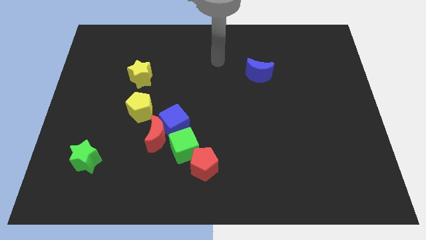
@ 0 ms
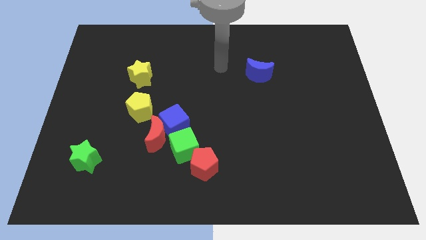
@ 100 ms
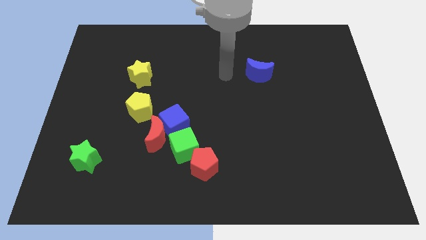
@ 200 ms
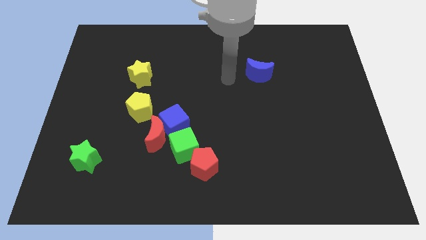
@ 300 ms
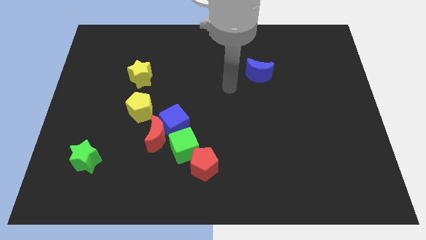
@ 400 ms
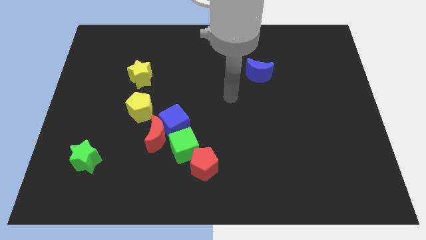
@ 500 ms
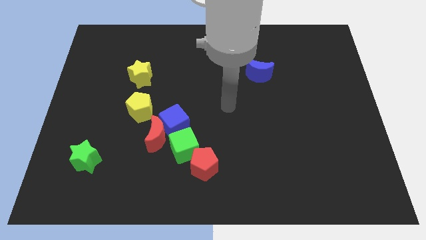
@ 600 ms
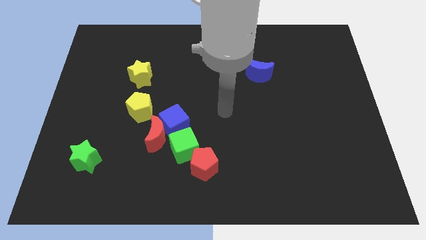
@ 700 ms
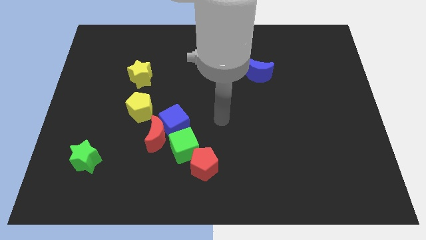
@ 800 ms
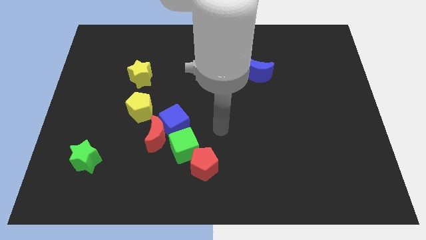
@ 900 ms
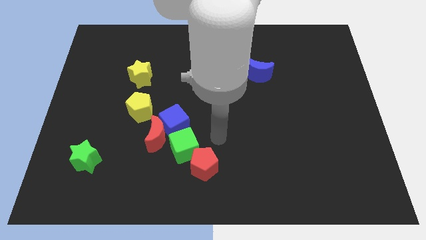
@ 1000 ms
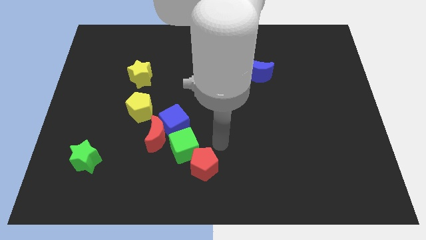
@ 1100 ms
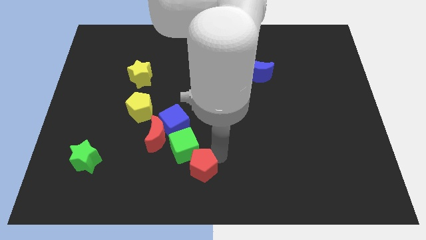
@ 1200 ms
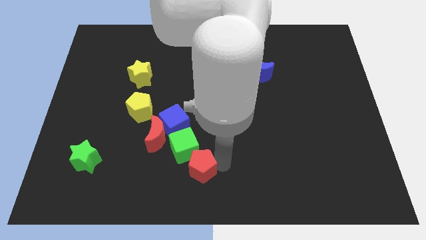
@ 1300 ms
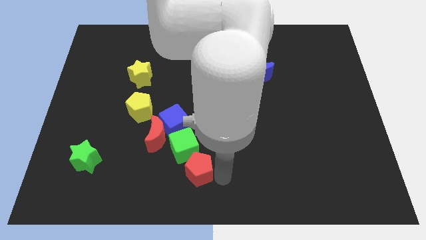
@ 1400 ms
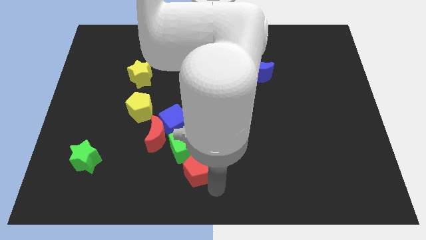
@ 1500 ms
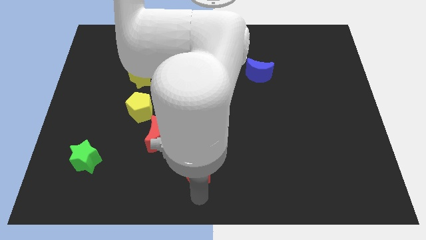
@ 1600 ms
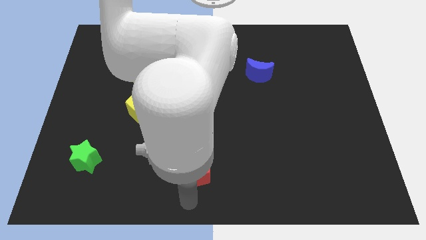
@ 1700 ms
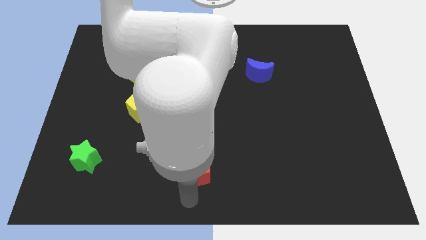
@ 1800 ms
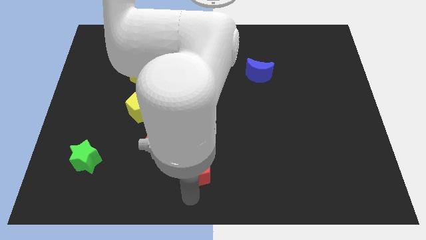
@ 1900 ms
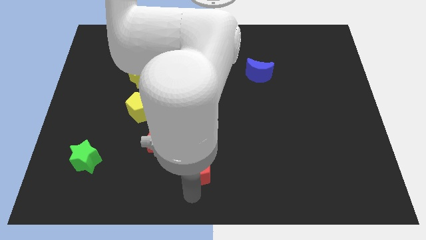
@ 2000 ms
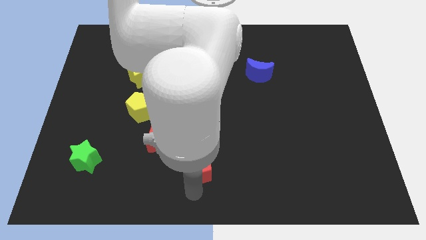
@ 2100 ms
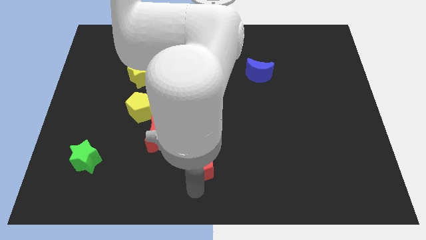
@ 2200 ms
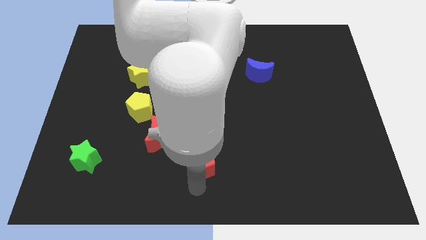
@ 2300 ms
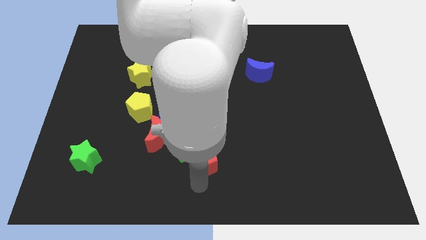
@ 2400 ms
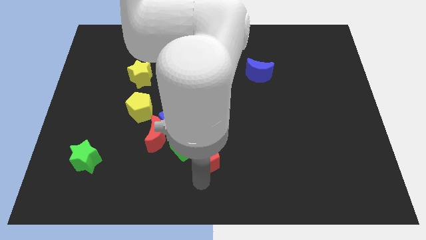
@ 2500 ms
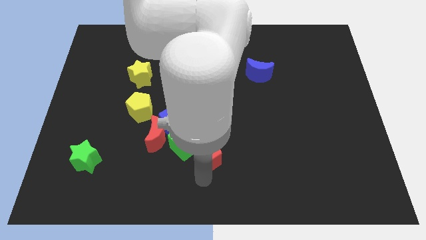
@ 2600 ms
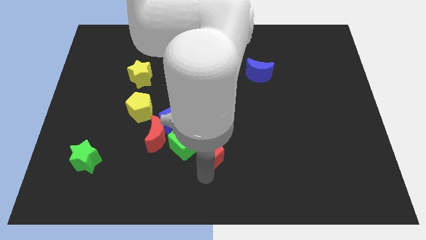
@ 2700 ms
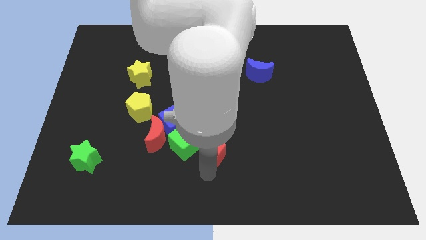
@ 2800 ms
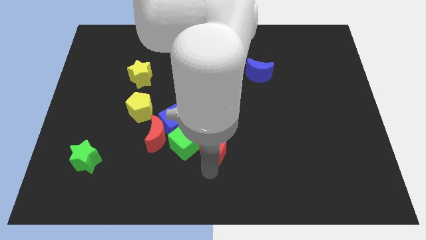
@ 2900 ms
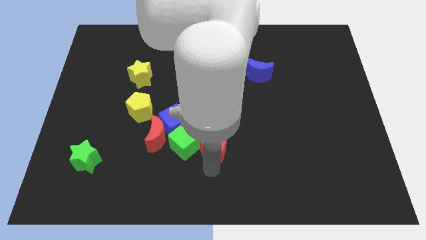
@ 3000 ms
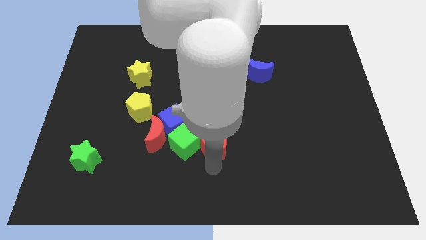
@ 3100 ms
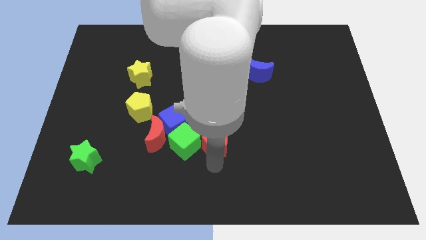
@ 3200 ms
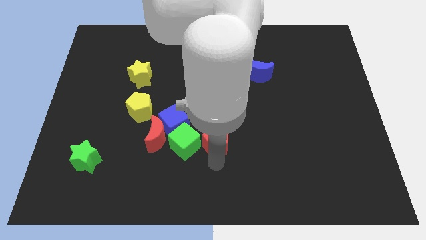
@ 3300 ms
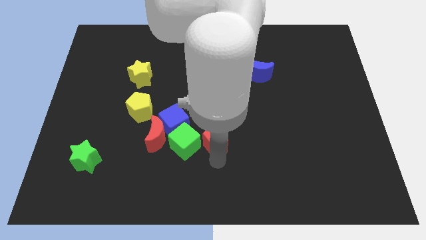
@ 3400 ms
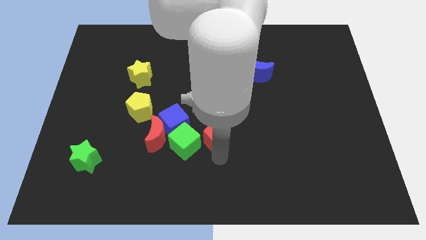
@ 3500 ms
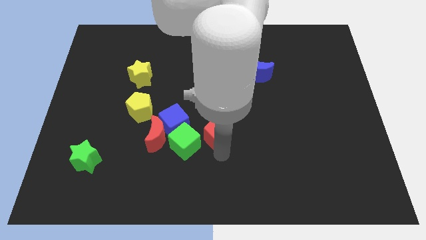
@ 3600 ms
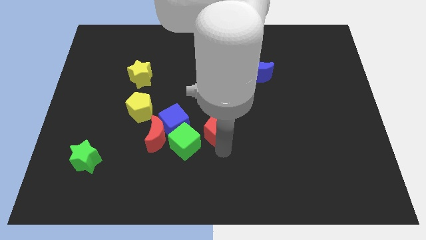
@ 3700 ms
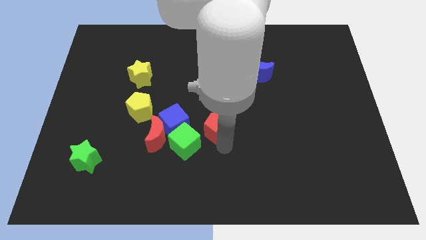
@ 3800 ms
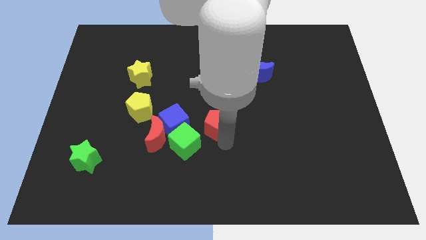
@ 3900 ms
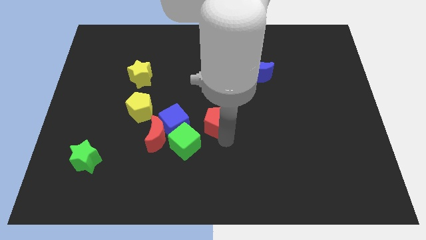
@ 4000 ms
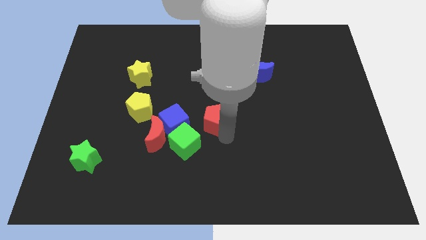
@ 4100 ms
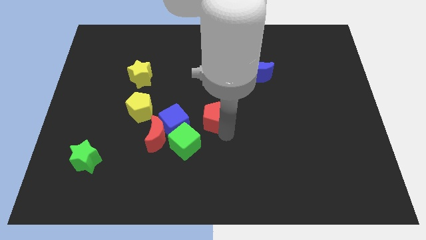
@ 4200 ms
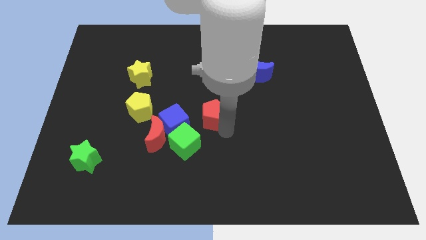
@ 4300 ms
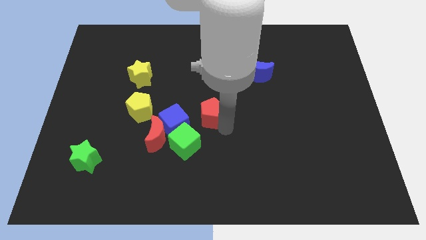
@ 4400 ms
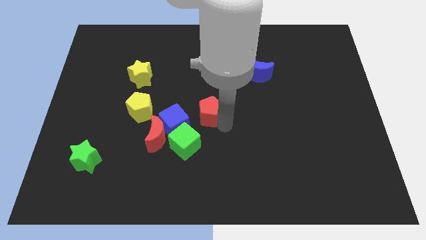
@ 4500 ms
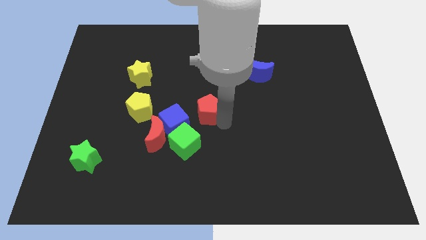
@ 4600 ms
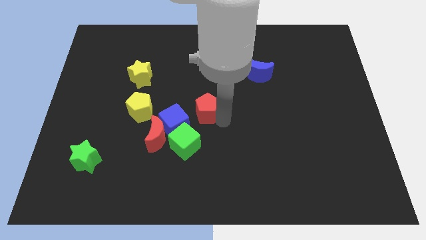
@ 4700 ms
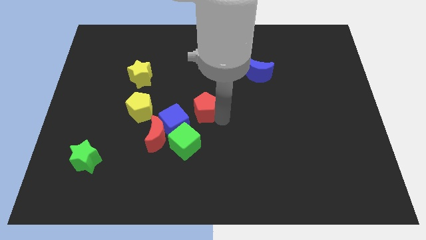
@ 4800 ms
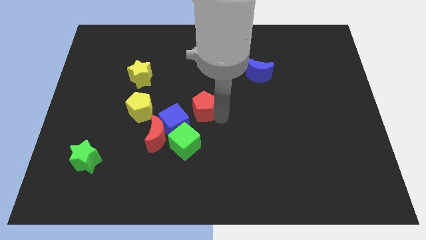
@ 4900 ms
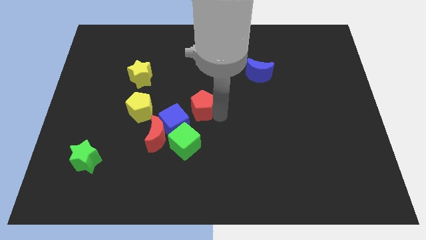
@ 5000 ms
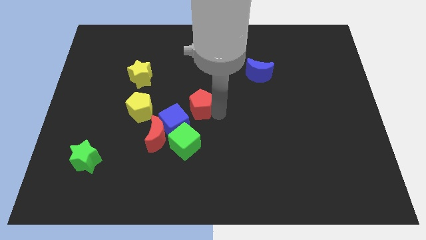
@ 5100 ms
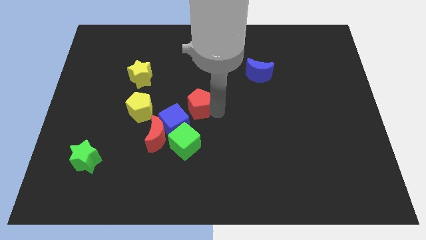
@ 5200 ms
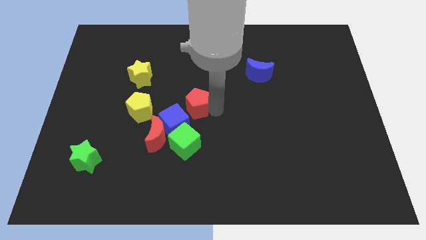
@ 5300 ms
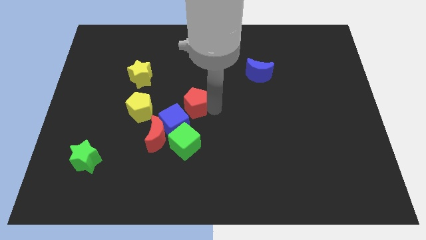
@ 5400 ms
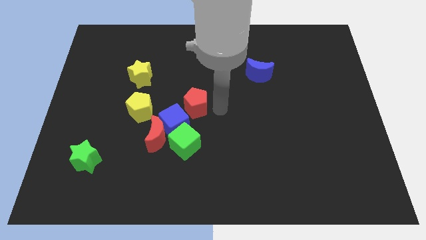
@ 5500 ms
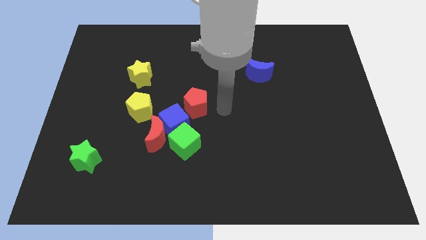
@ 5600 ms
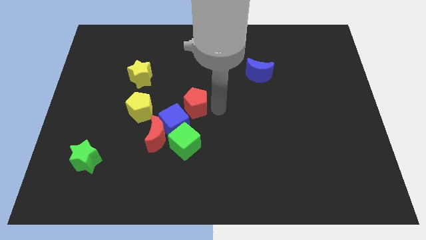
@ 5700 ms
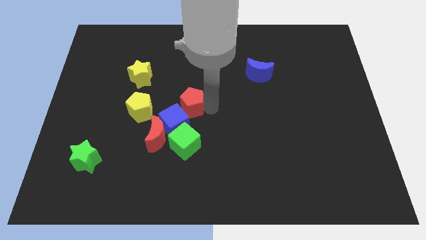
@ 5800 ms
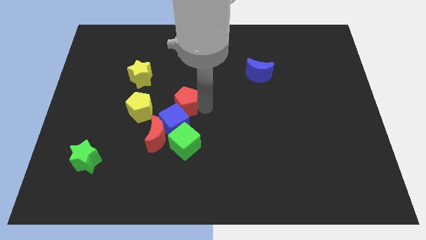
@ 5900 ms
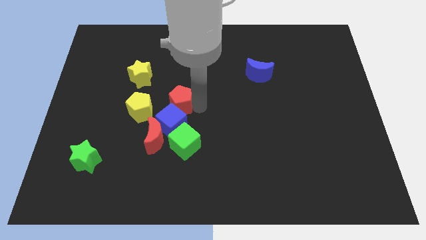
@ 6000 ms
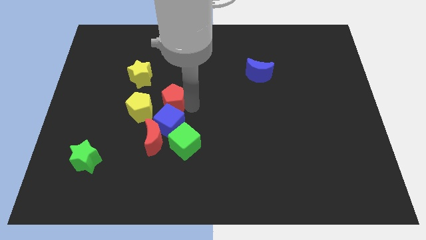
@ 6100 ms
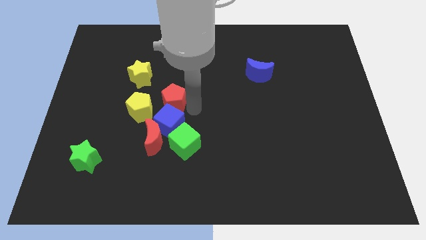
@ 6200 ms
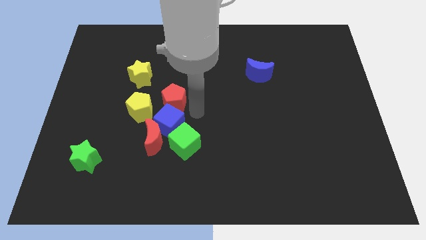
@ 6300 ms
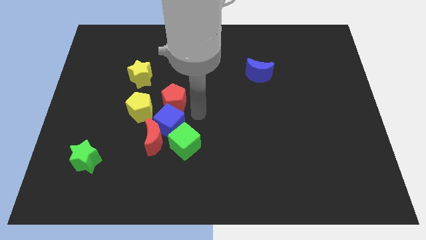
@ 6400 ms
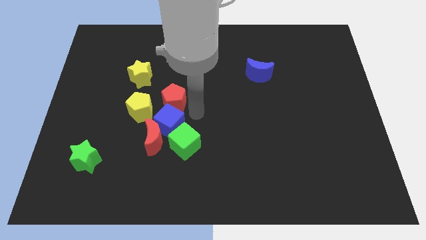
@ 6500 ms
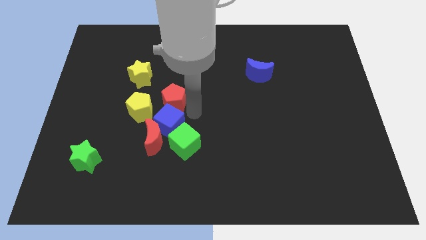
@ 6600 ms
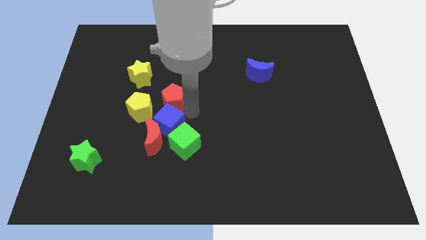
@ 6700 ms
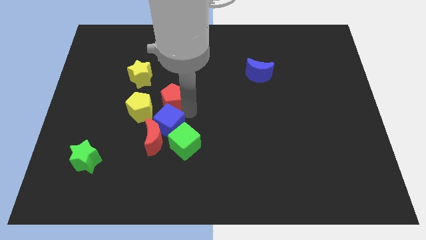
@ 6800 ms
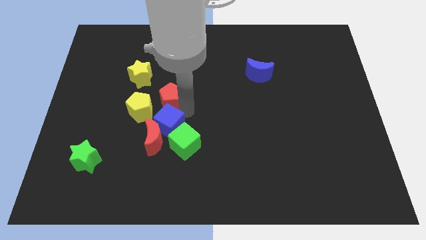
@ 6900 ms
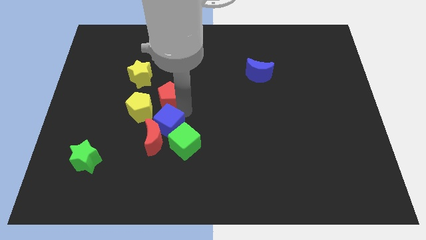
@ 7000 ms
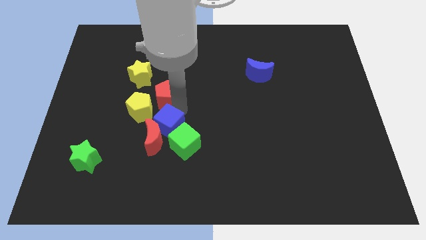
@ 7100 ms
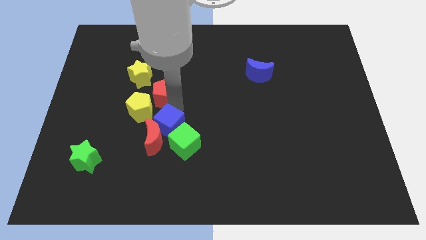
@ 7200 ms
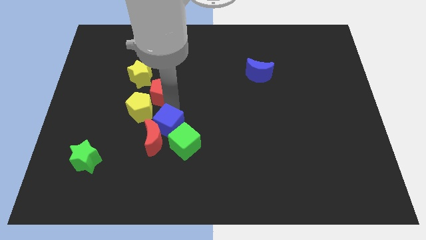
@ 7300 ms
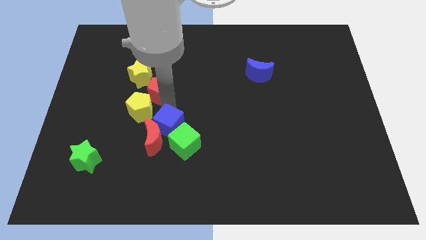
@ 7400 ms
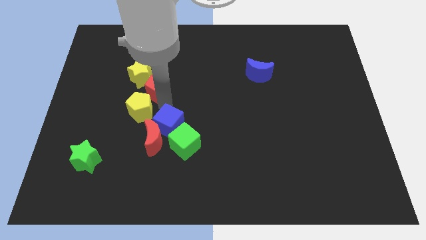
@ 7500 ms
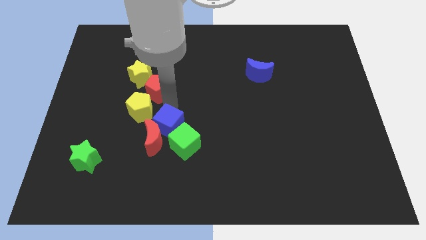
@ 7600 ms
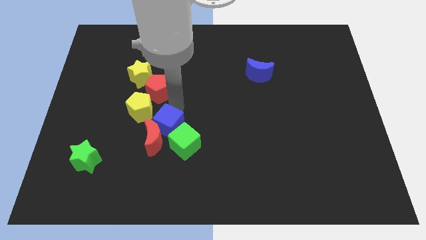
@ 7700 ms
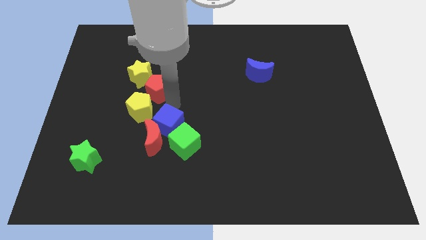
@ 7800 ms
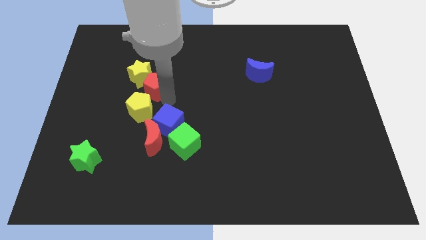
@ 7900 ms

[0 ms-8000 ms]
push the red pentagon towards the yellow star
